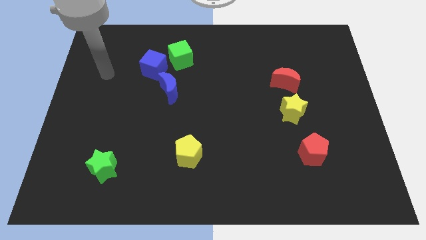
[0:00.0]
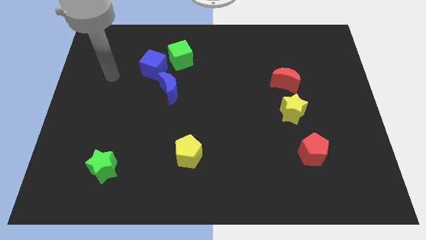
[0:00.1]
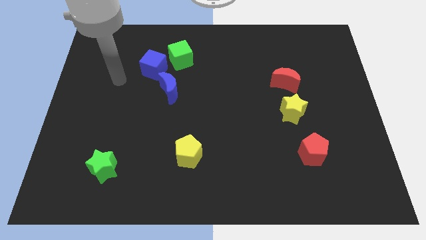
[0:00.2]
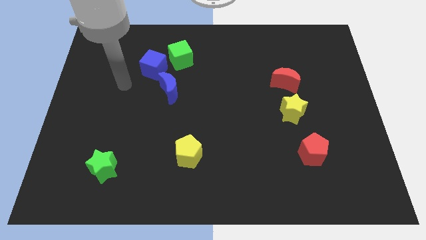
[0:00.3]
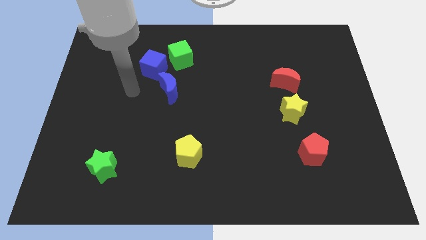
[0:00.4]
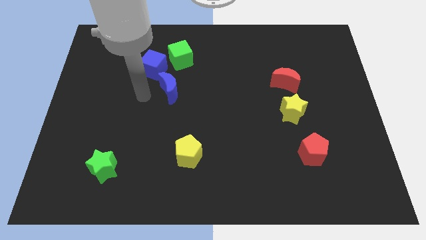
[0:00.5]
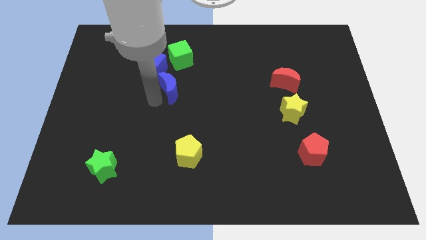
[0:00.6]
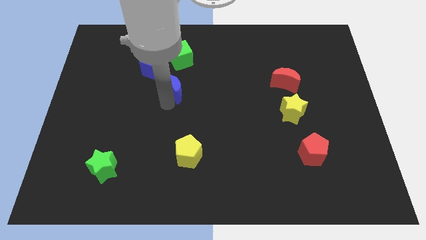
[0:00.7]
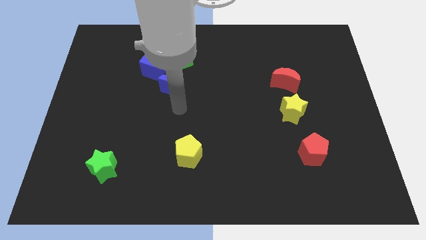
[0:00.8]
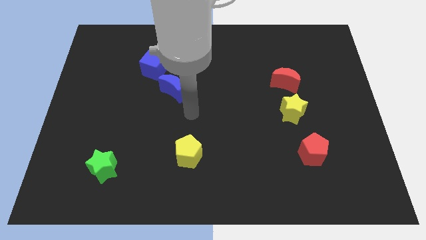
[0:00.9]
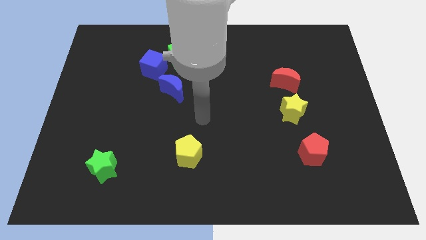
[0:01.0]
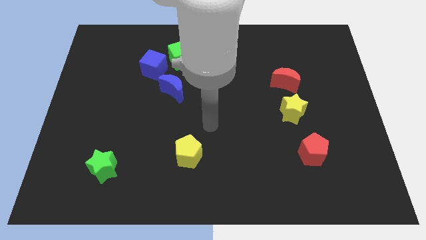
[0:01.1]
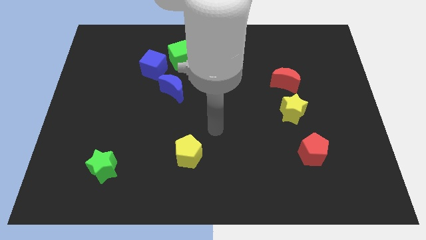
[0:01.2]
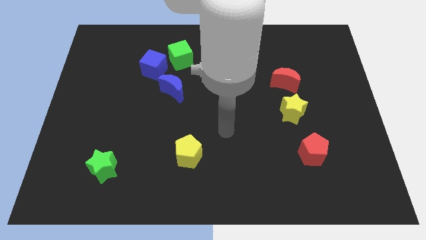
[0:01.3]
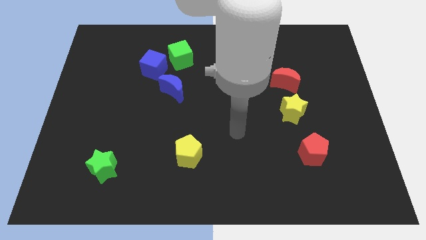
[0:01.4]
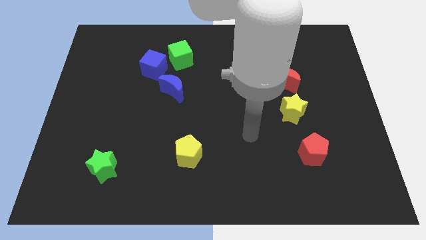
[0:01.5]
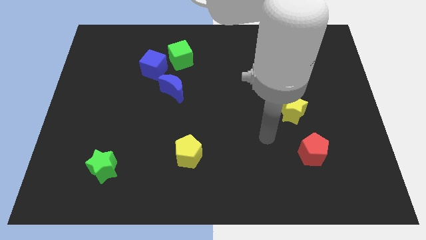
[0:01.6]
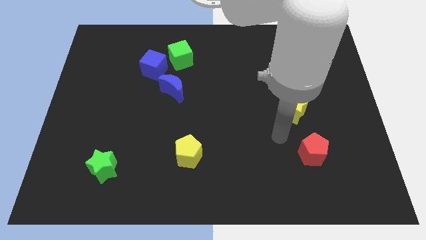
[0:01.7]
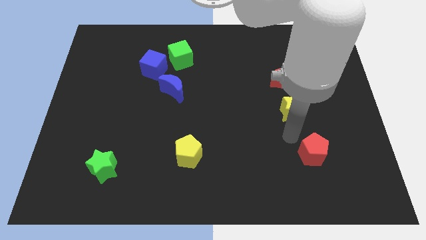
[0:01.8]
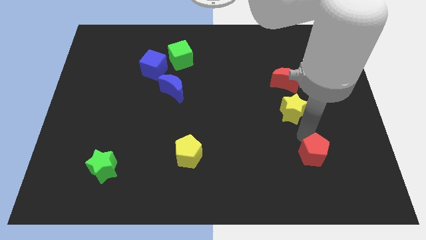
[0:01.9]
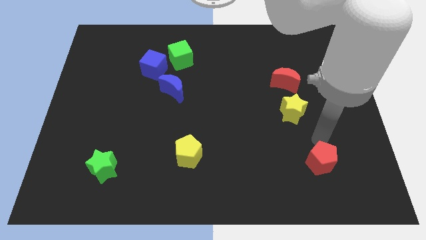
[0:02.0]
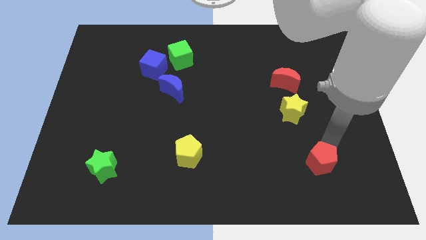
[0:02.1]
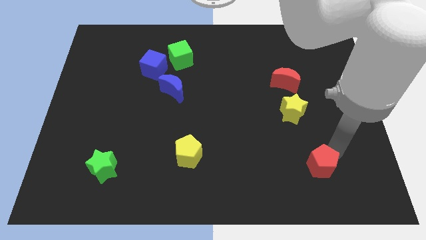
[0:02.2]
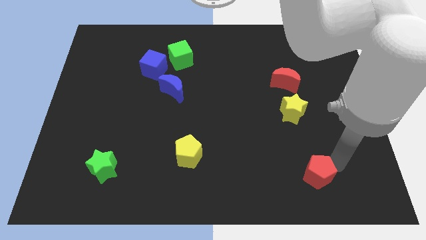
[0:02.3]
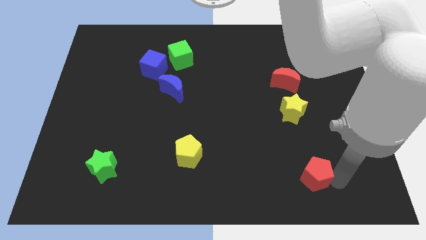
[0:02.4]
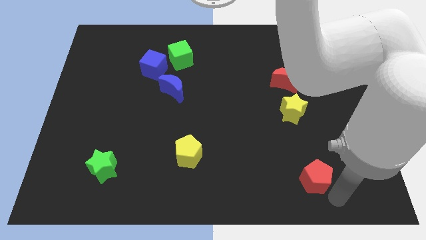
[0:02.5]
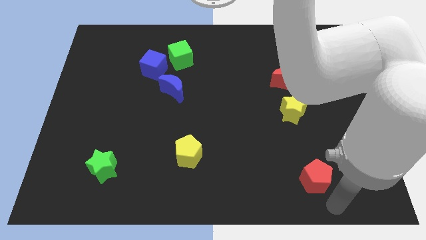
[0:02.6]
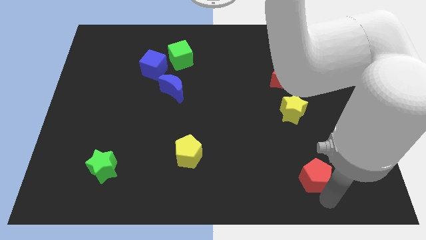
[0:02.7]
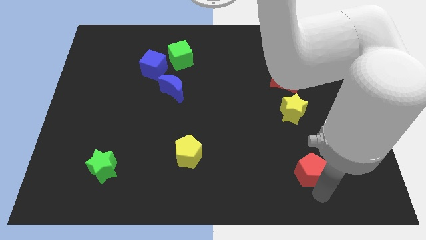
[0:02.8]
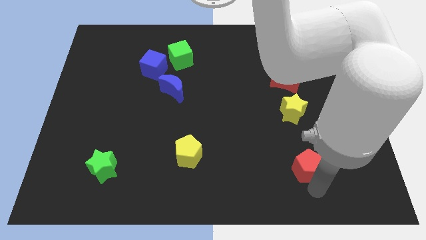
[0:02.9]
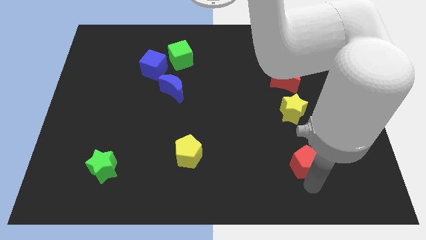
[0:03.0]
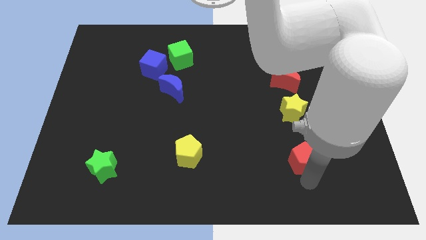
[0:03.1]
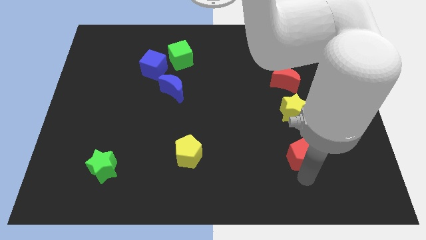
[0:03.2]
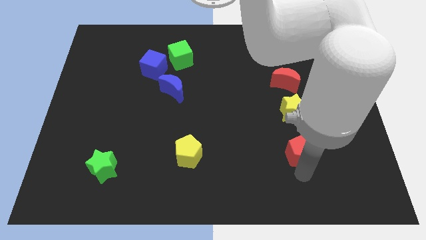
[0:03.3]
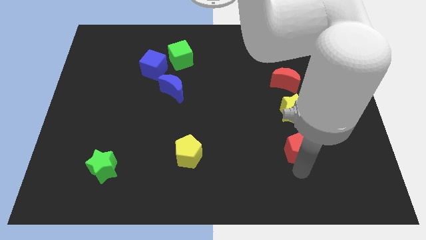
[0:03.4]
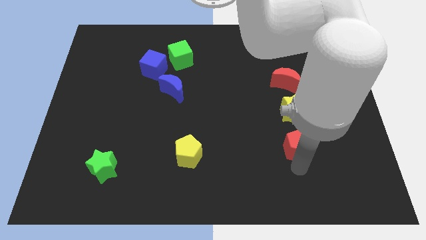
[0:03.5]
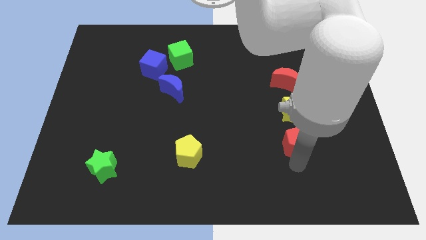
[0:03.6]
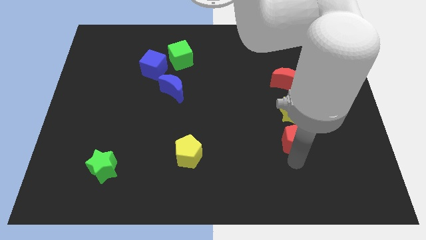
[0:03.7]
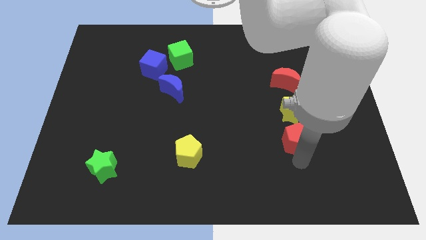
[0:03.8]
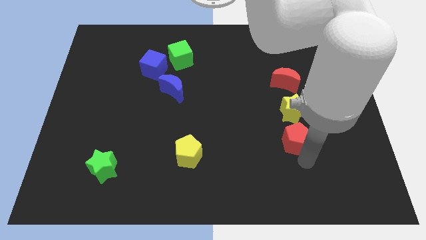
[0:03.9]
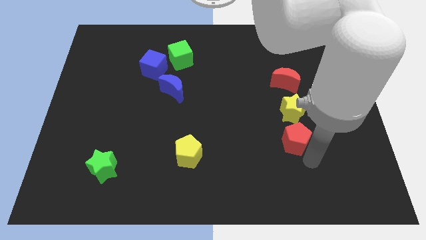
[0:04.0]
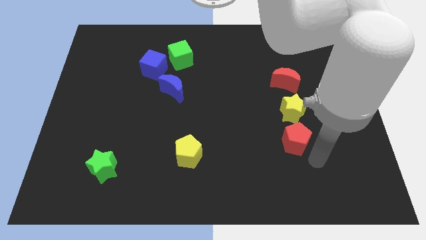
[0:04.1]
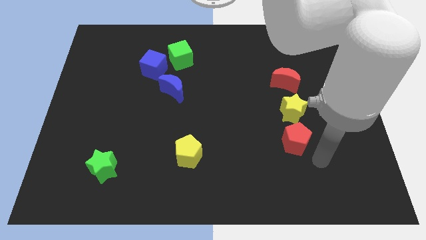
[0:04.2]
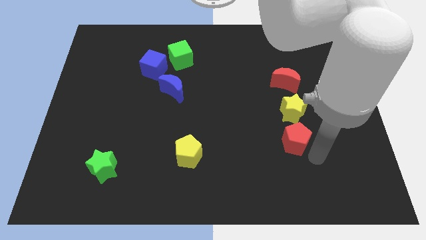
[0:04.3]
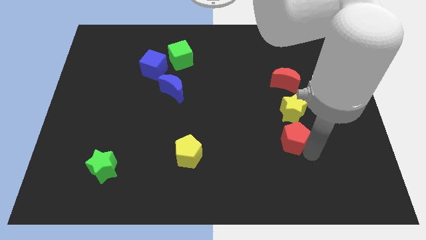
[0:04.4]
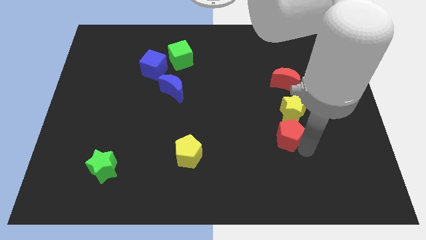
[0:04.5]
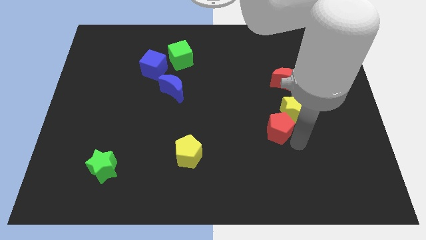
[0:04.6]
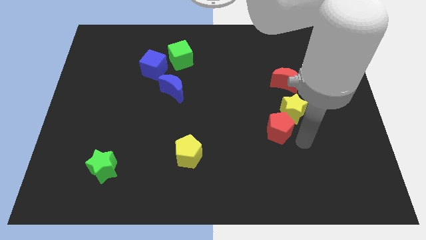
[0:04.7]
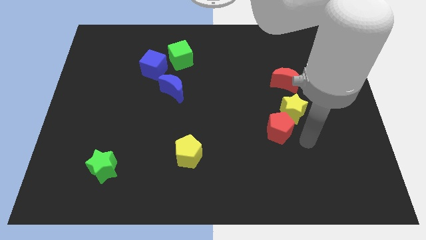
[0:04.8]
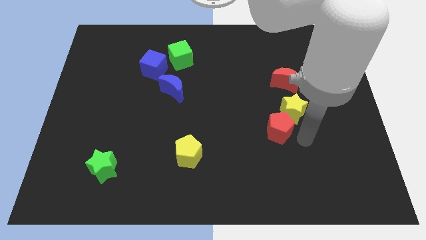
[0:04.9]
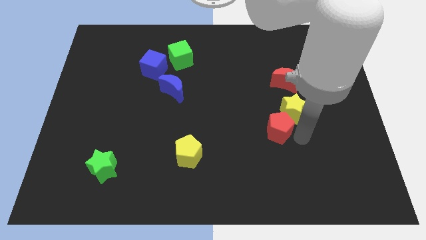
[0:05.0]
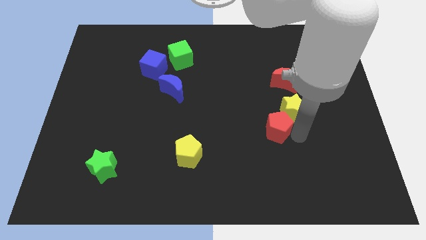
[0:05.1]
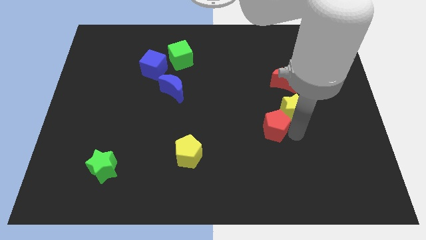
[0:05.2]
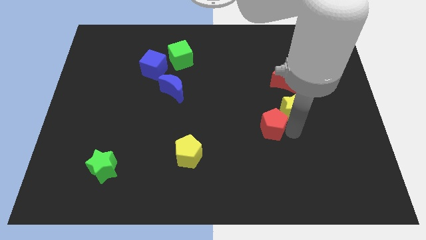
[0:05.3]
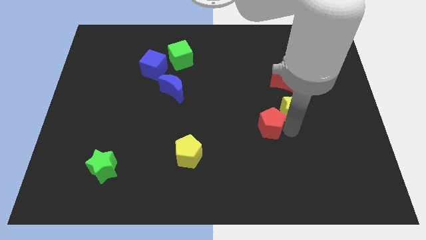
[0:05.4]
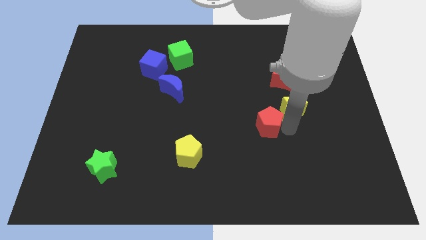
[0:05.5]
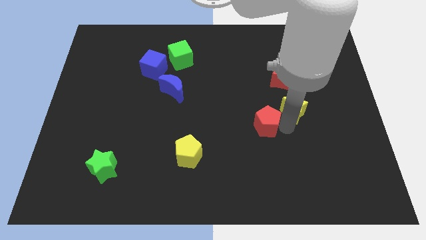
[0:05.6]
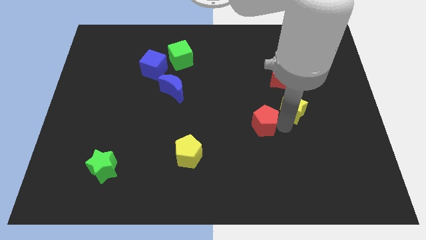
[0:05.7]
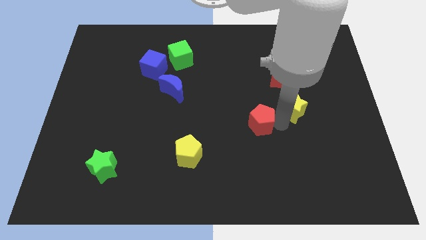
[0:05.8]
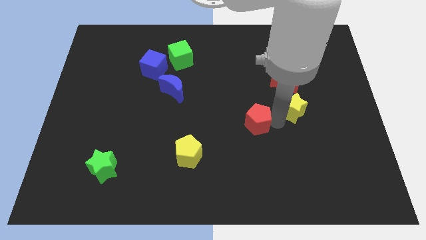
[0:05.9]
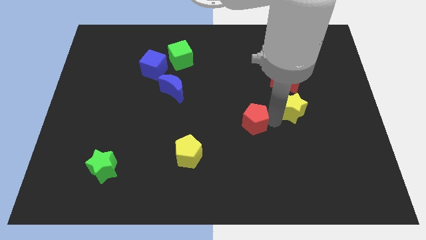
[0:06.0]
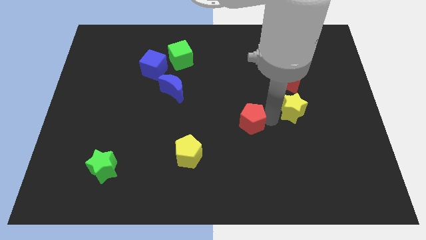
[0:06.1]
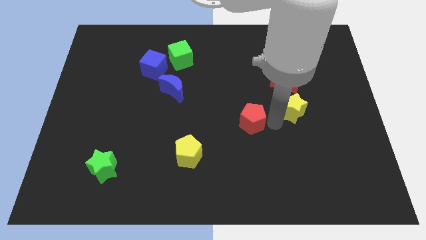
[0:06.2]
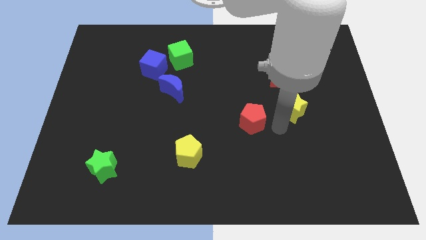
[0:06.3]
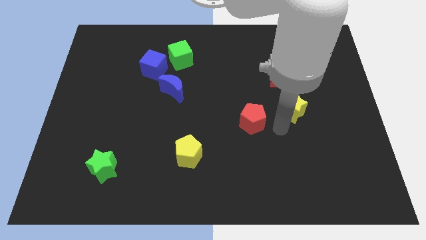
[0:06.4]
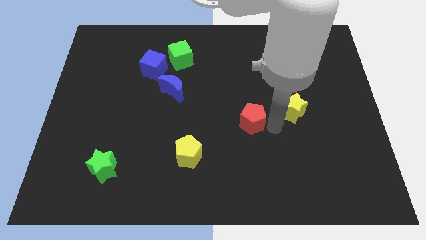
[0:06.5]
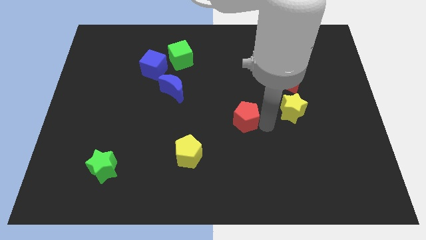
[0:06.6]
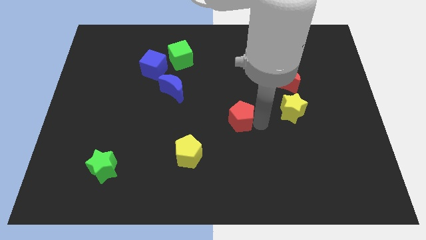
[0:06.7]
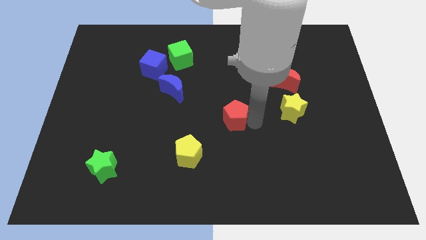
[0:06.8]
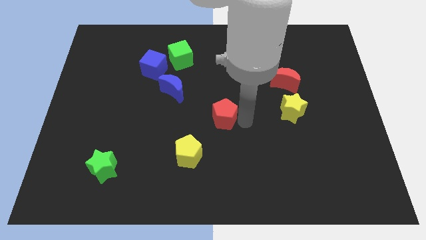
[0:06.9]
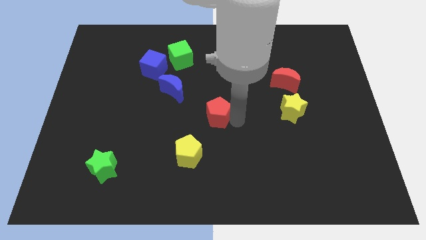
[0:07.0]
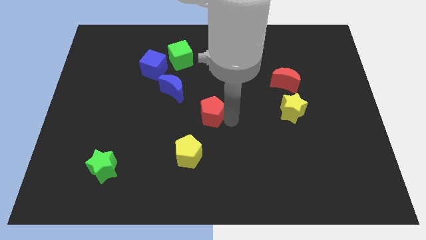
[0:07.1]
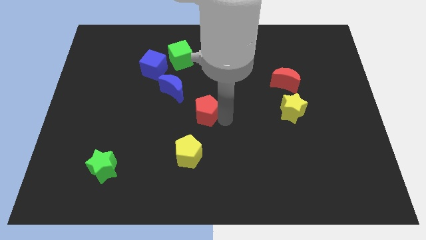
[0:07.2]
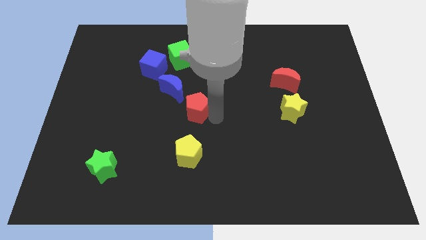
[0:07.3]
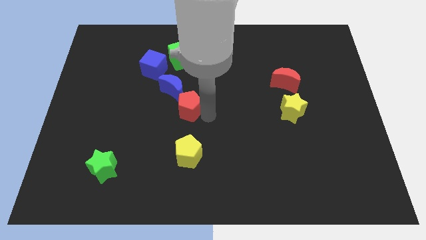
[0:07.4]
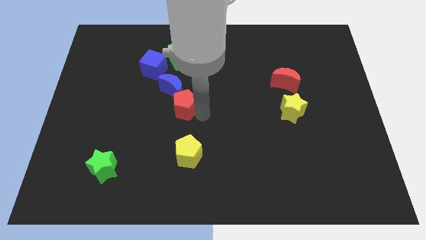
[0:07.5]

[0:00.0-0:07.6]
slide the red pentagon towards the blue moon
